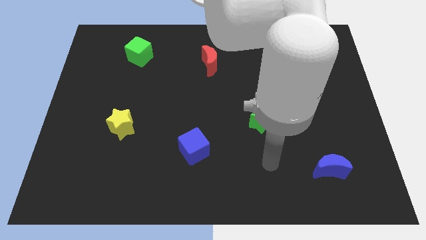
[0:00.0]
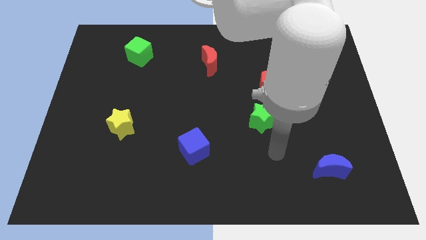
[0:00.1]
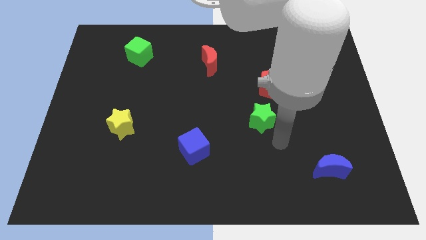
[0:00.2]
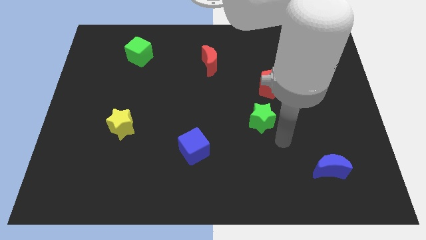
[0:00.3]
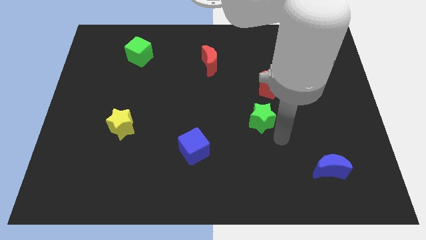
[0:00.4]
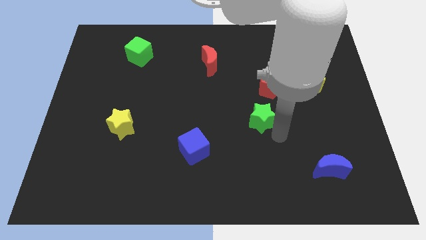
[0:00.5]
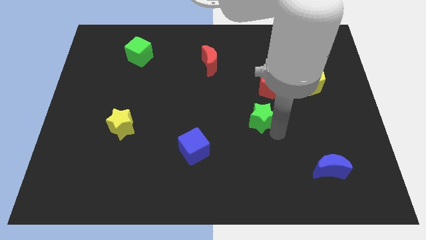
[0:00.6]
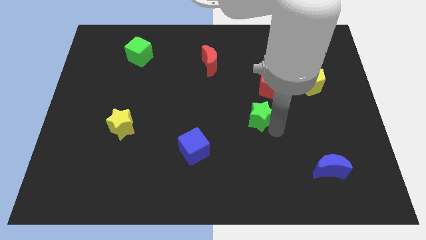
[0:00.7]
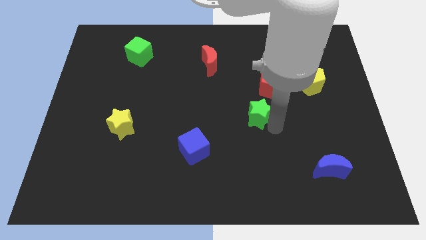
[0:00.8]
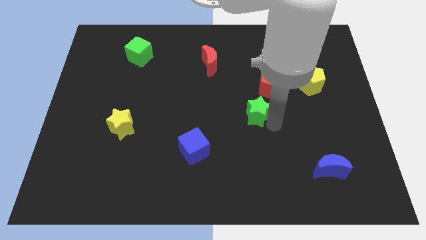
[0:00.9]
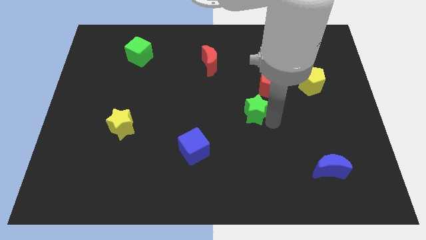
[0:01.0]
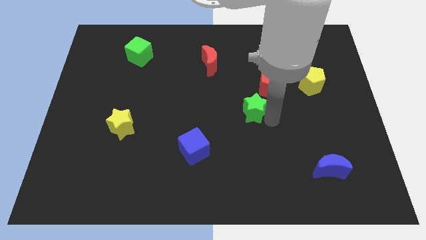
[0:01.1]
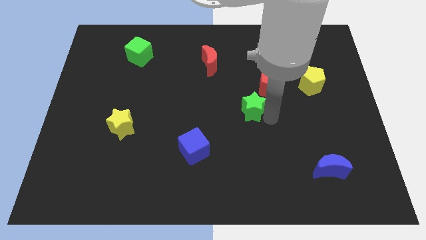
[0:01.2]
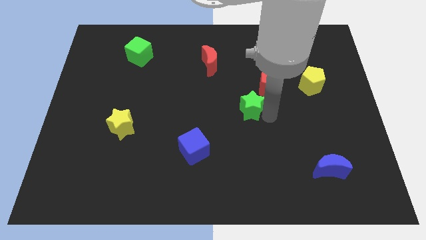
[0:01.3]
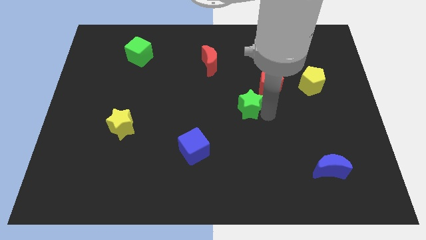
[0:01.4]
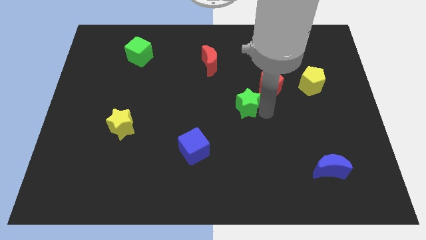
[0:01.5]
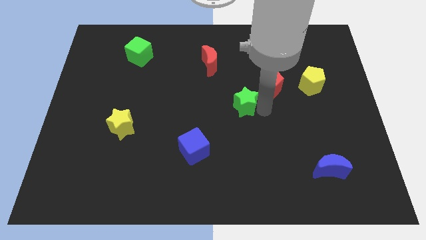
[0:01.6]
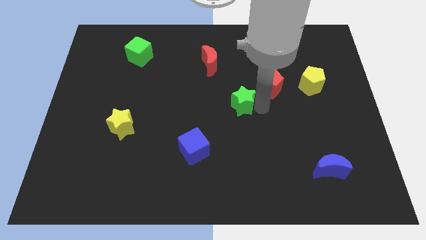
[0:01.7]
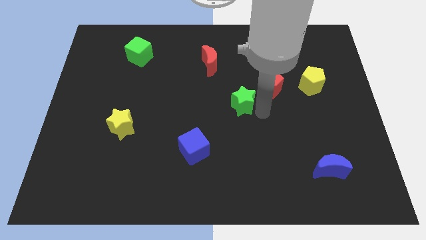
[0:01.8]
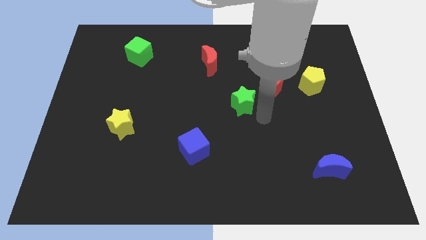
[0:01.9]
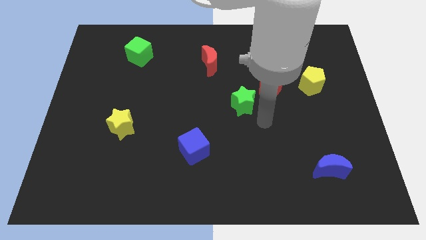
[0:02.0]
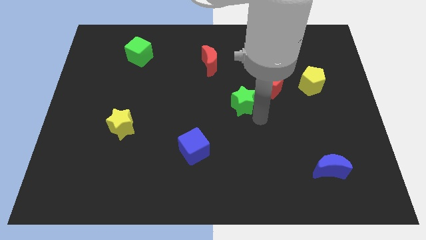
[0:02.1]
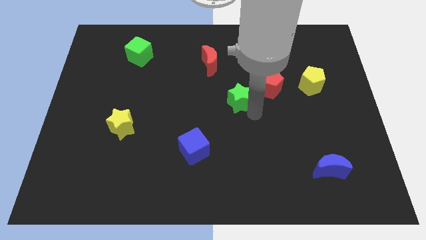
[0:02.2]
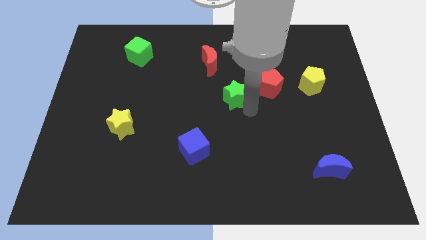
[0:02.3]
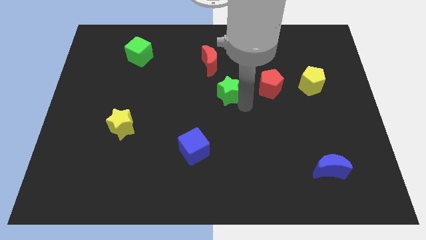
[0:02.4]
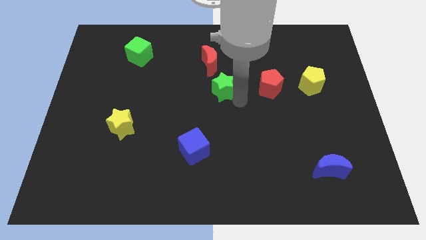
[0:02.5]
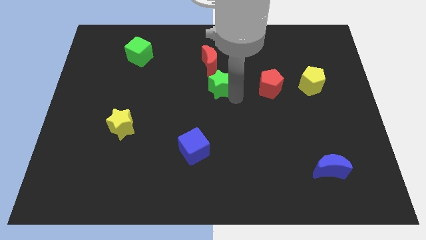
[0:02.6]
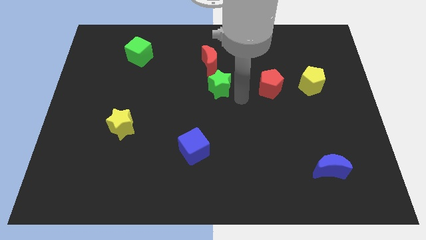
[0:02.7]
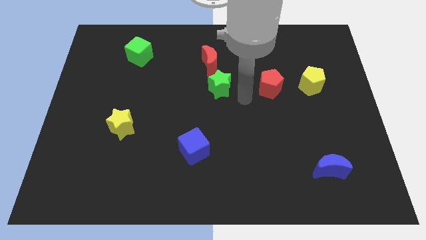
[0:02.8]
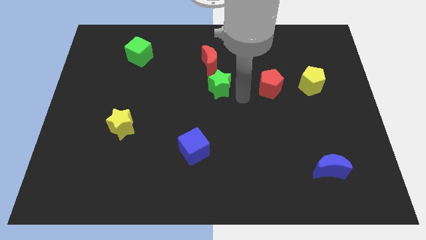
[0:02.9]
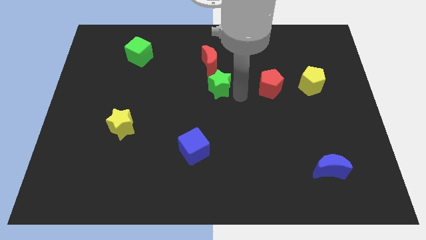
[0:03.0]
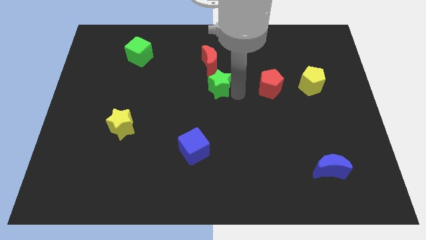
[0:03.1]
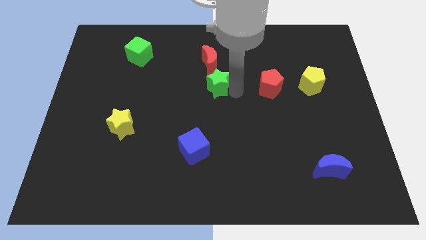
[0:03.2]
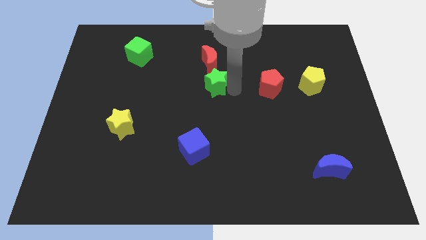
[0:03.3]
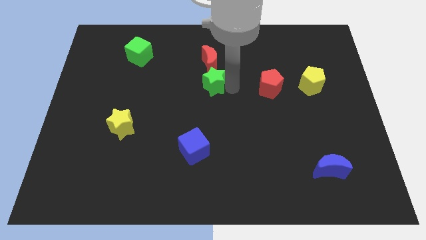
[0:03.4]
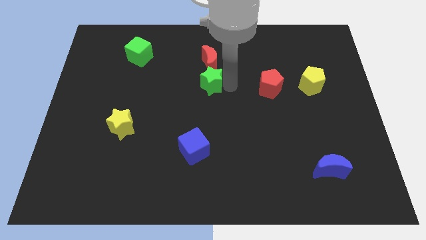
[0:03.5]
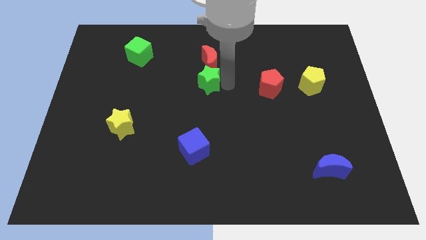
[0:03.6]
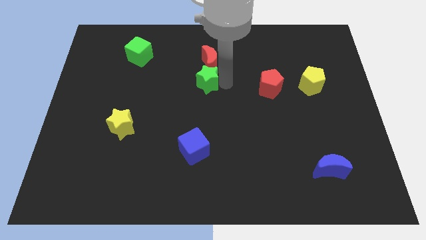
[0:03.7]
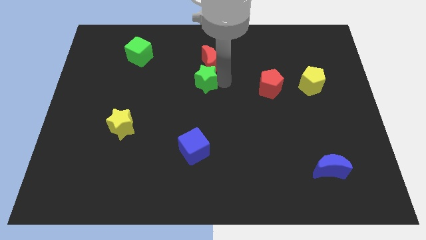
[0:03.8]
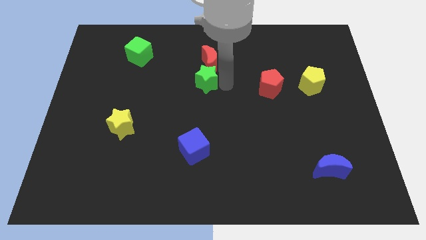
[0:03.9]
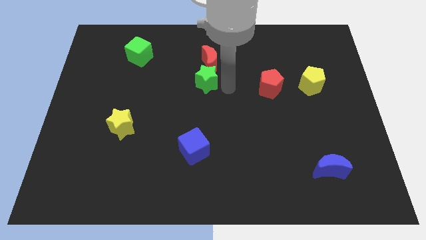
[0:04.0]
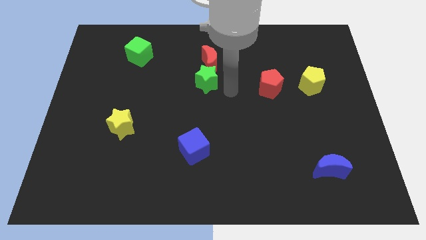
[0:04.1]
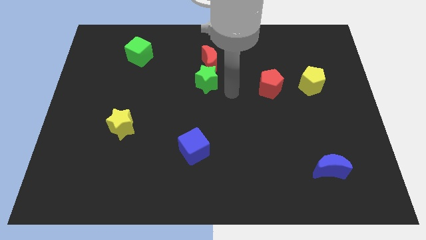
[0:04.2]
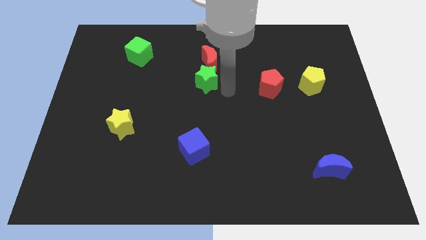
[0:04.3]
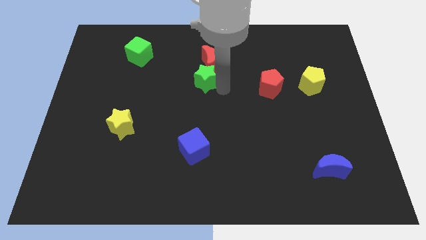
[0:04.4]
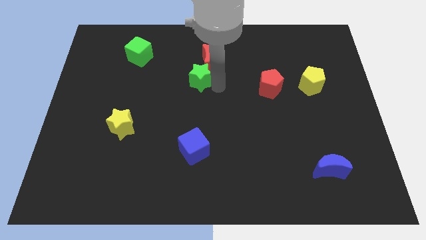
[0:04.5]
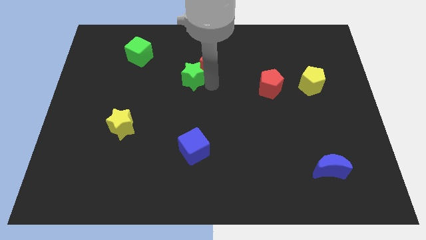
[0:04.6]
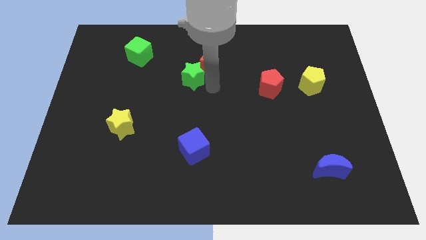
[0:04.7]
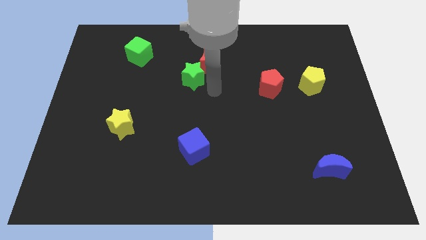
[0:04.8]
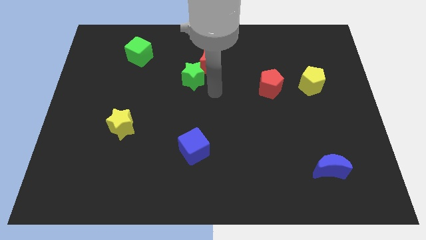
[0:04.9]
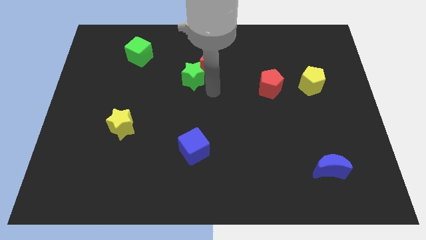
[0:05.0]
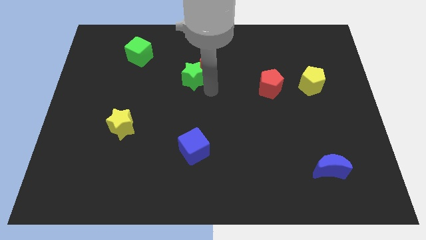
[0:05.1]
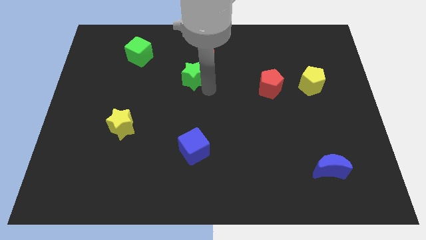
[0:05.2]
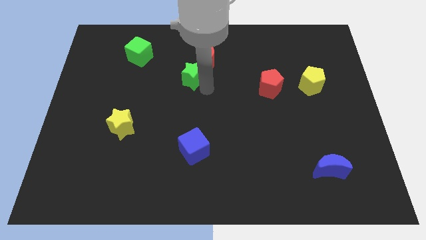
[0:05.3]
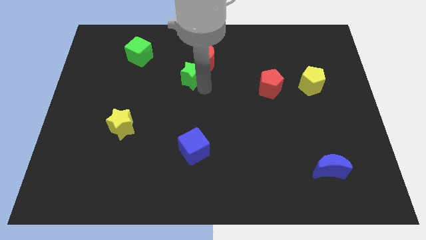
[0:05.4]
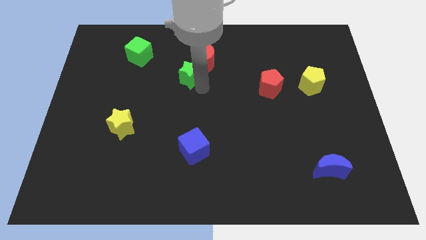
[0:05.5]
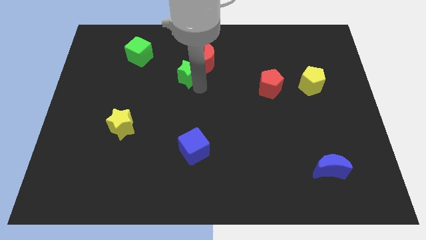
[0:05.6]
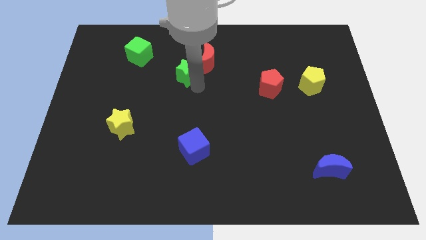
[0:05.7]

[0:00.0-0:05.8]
push the green star left of the red moon
